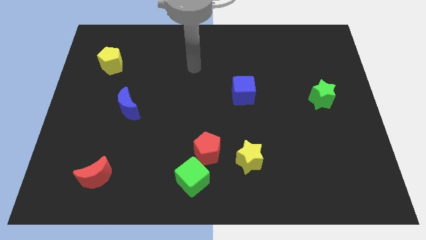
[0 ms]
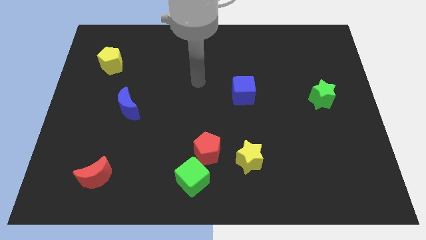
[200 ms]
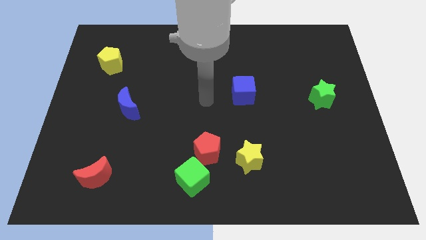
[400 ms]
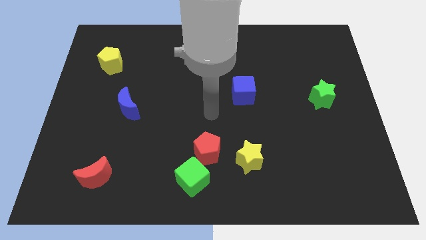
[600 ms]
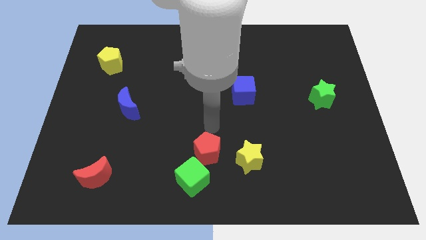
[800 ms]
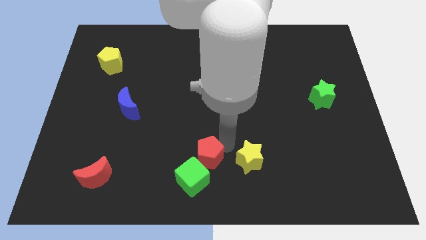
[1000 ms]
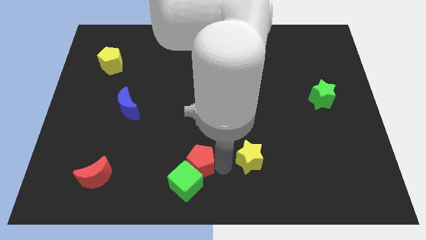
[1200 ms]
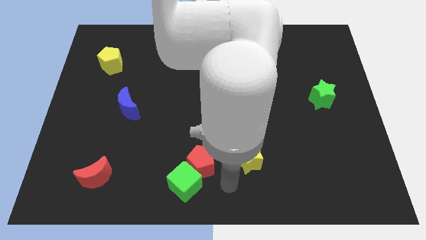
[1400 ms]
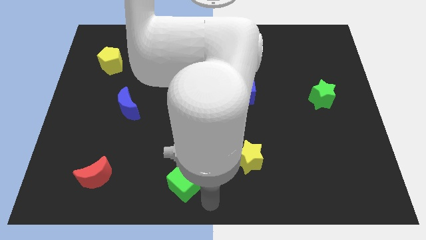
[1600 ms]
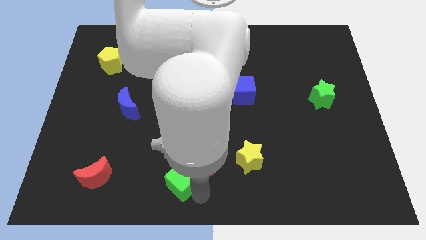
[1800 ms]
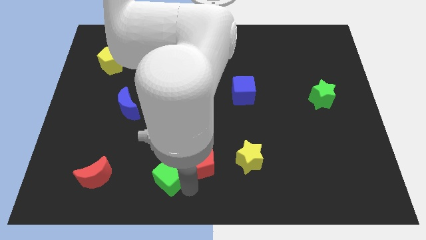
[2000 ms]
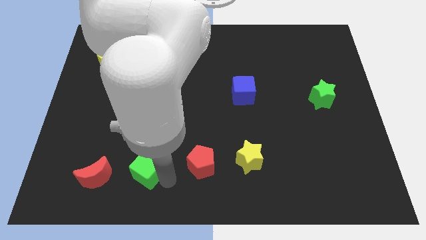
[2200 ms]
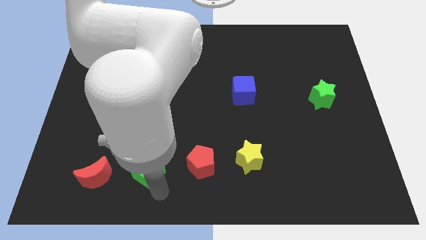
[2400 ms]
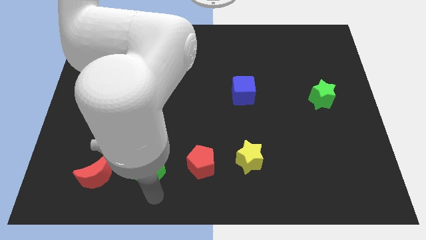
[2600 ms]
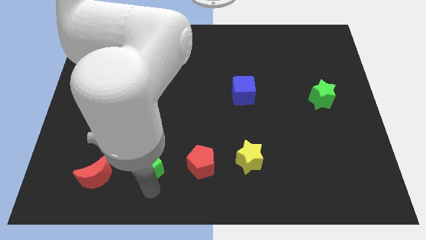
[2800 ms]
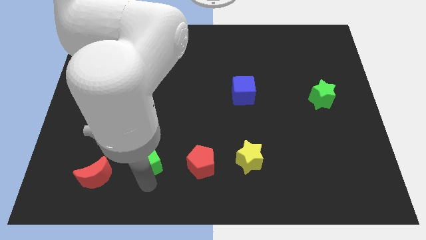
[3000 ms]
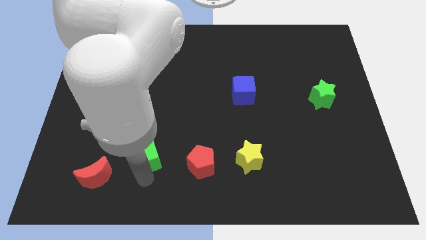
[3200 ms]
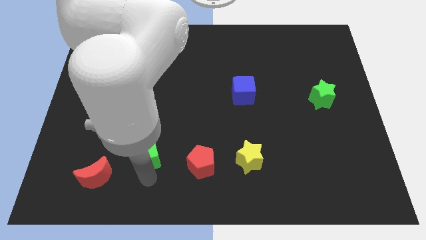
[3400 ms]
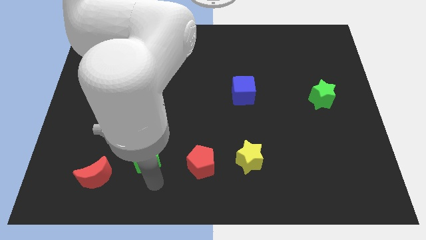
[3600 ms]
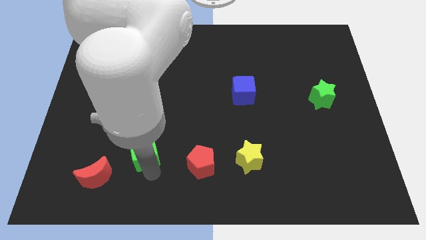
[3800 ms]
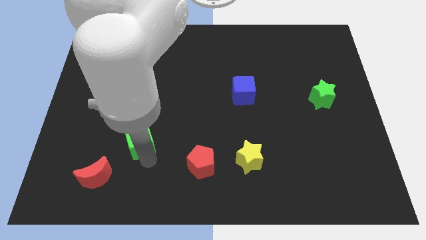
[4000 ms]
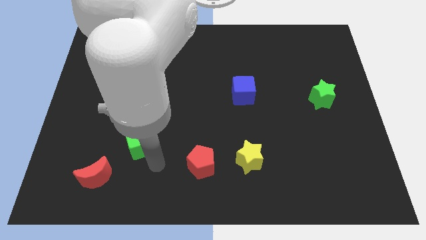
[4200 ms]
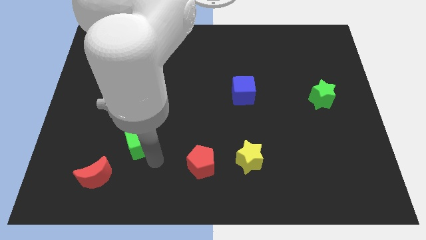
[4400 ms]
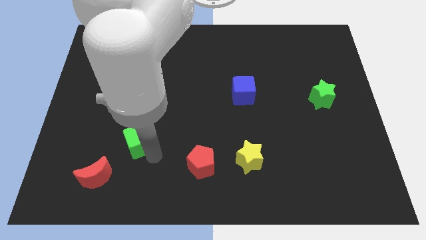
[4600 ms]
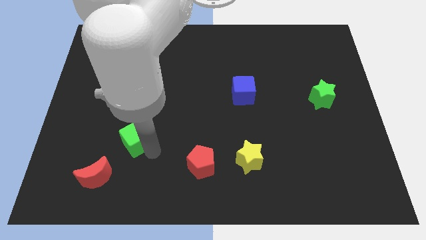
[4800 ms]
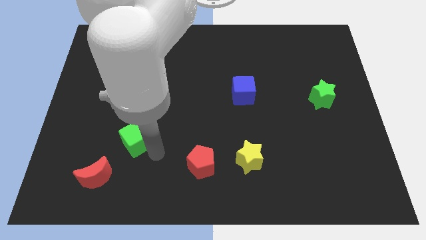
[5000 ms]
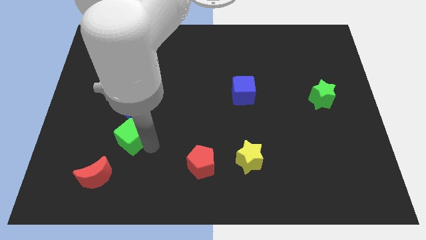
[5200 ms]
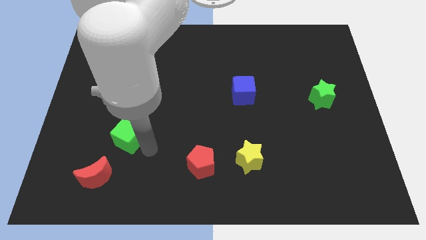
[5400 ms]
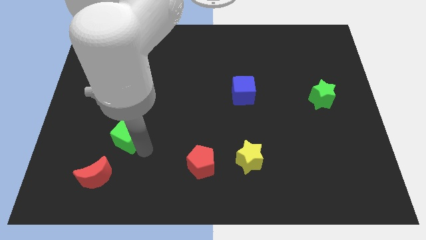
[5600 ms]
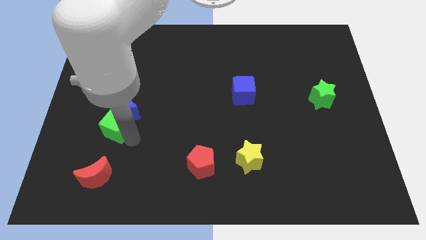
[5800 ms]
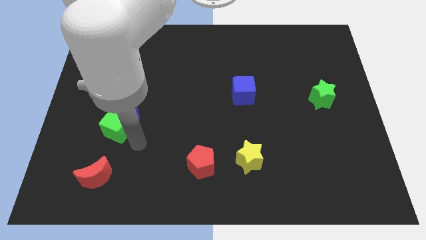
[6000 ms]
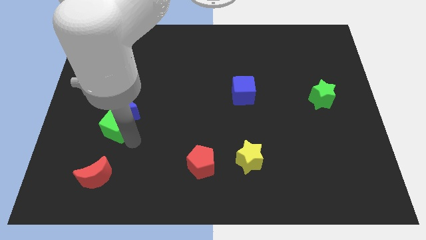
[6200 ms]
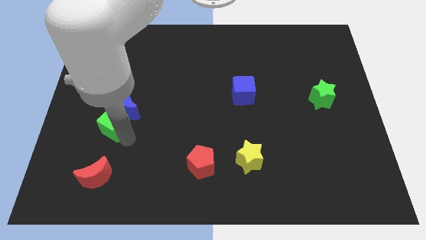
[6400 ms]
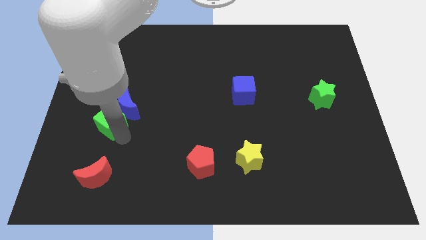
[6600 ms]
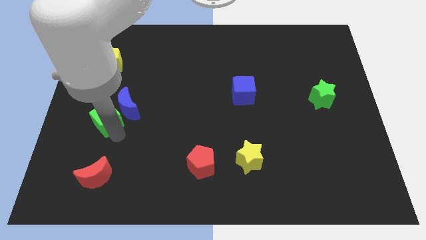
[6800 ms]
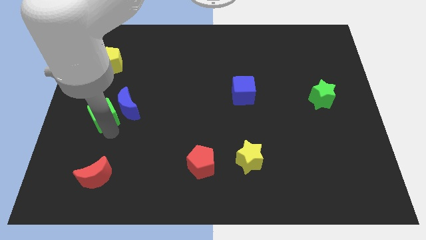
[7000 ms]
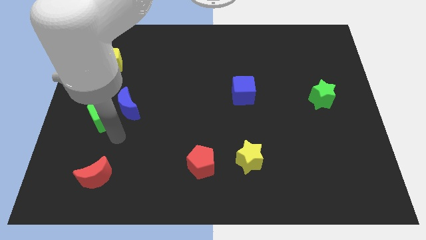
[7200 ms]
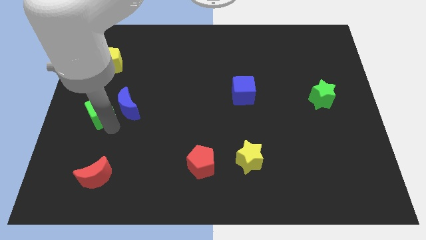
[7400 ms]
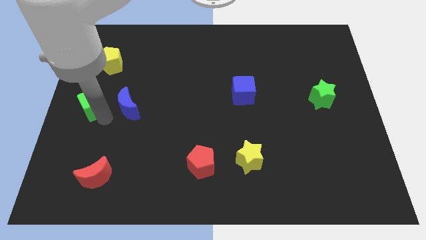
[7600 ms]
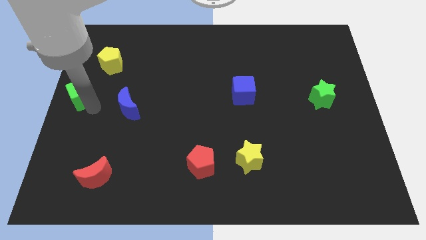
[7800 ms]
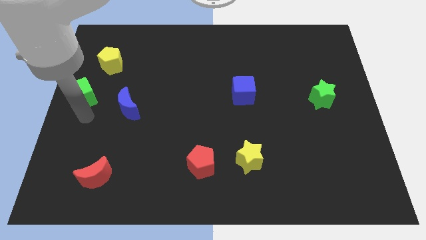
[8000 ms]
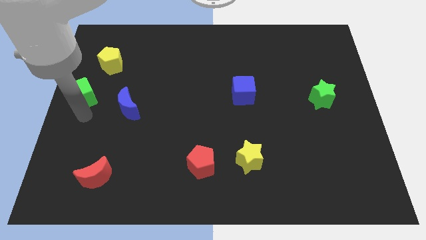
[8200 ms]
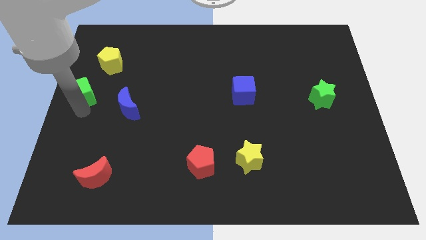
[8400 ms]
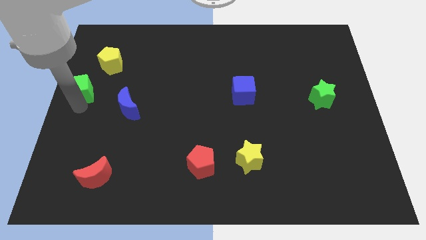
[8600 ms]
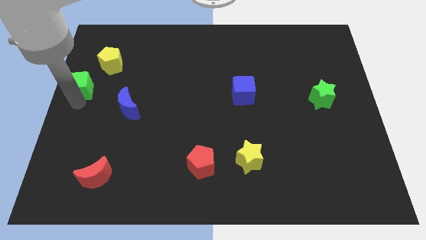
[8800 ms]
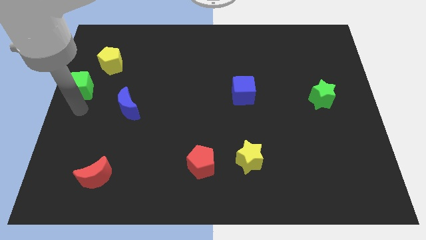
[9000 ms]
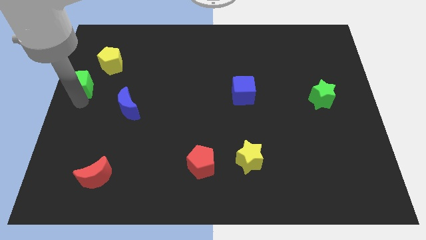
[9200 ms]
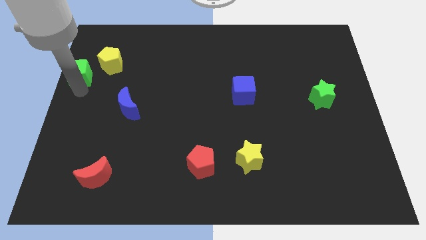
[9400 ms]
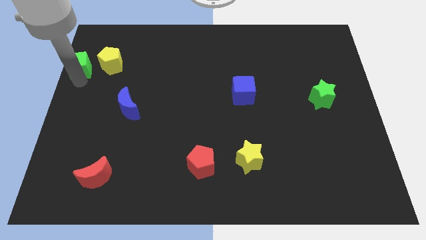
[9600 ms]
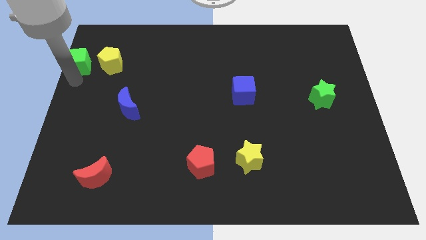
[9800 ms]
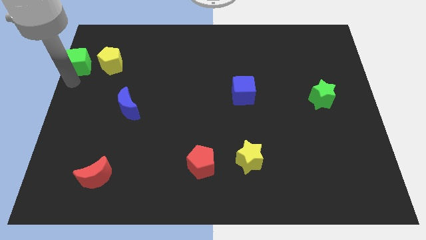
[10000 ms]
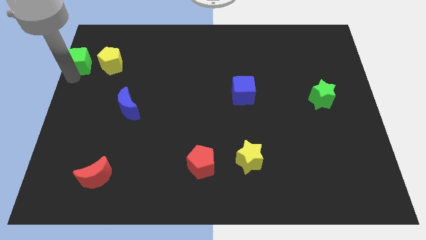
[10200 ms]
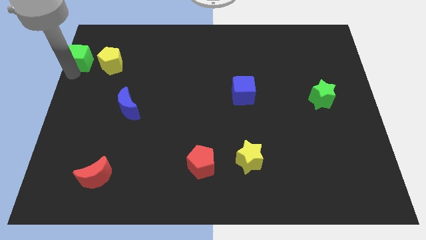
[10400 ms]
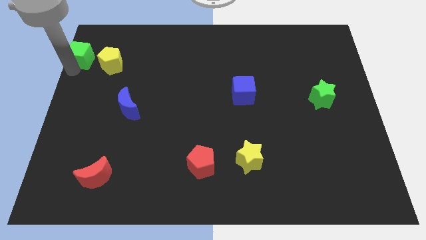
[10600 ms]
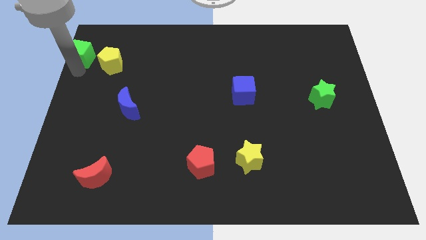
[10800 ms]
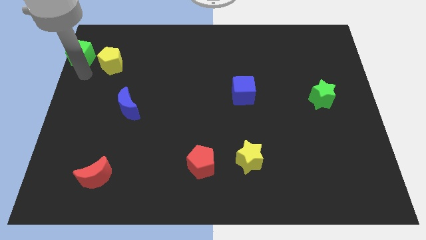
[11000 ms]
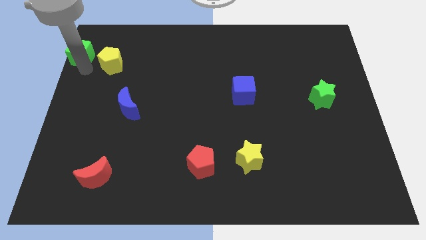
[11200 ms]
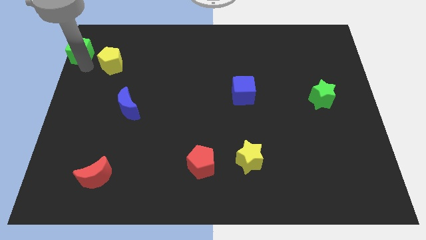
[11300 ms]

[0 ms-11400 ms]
slide the green cube to the top left of the board

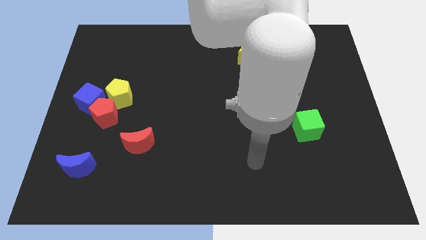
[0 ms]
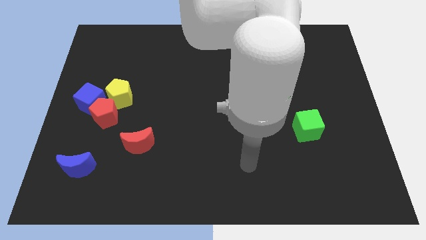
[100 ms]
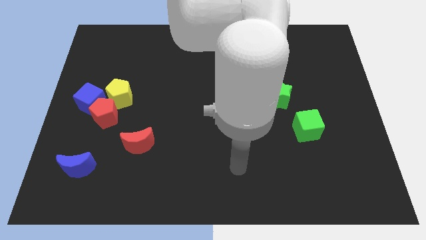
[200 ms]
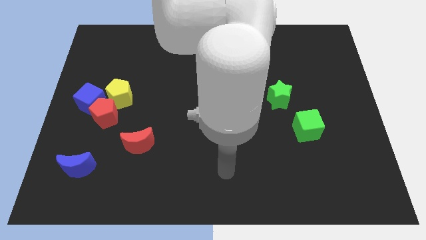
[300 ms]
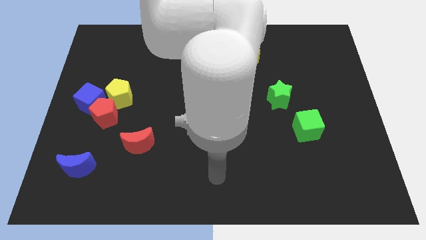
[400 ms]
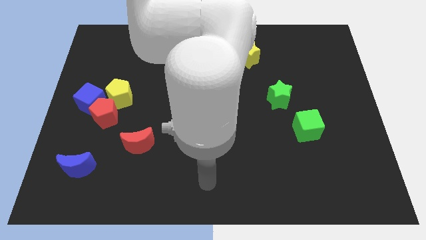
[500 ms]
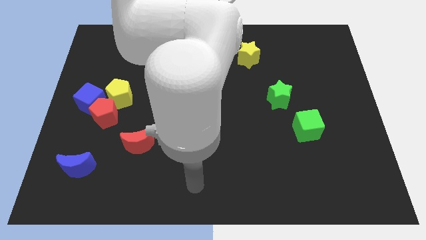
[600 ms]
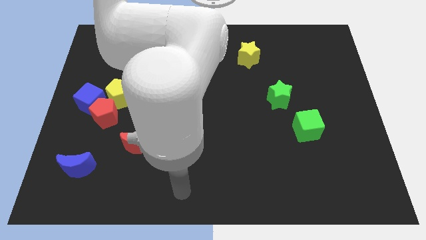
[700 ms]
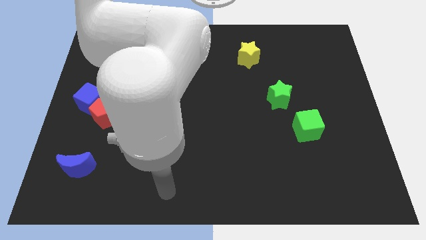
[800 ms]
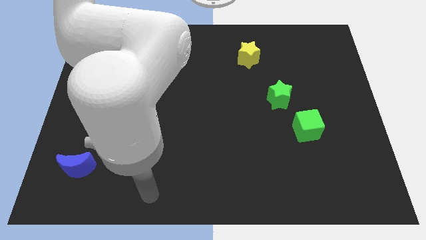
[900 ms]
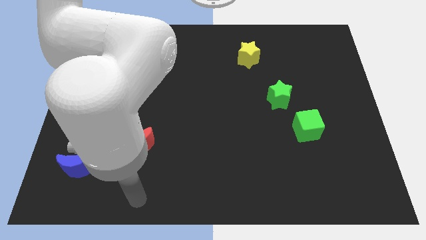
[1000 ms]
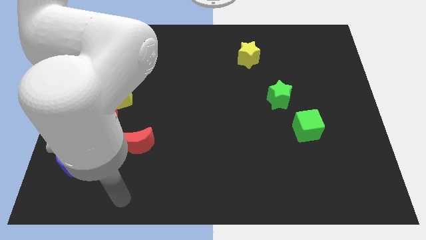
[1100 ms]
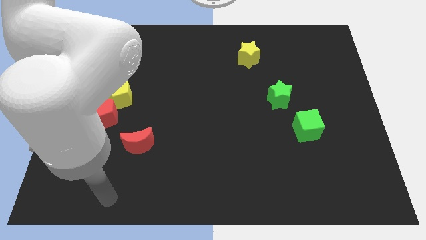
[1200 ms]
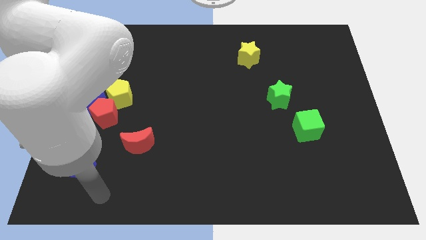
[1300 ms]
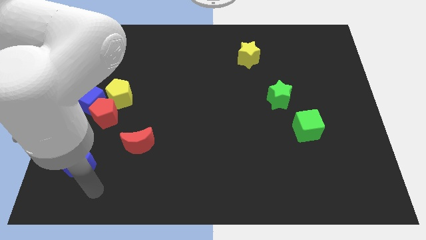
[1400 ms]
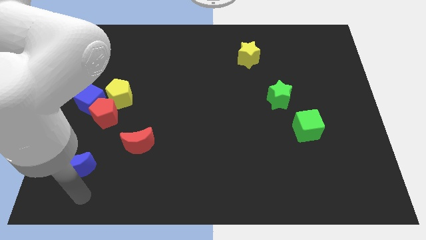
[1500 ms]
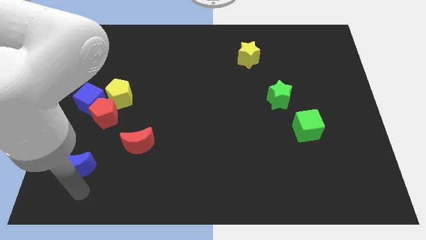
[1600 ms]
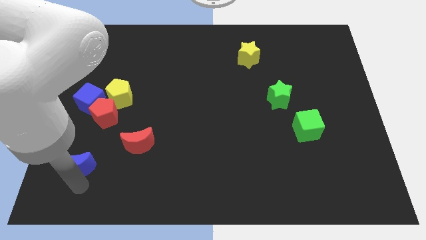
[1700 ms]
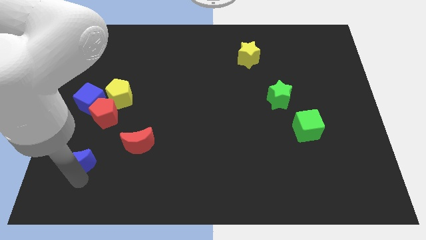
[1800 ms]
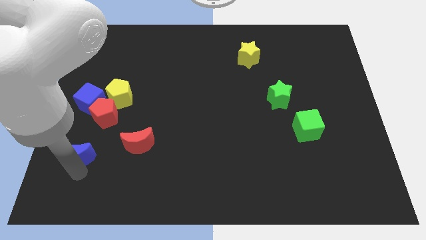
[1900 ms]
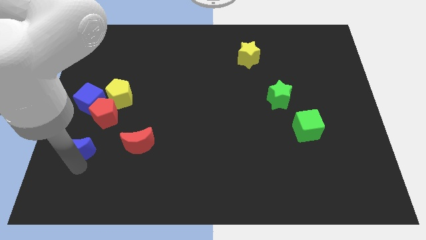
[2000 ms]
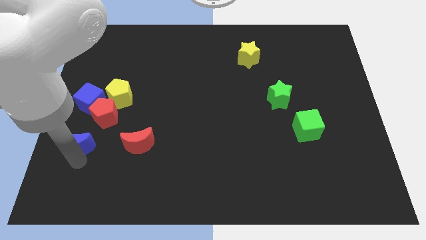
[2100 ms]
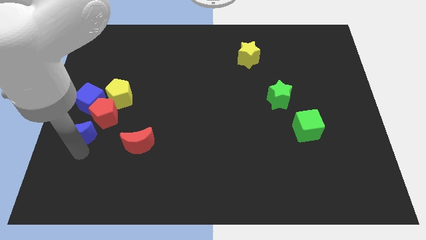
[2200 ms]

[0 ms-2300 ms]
move the blue moon to the left side of the board
